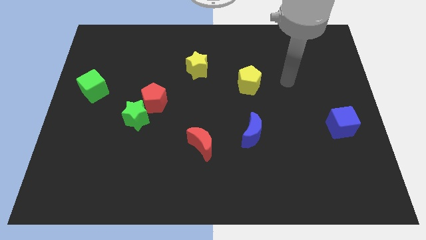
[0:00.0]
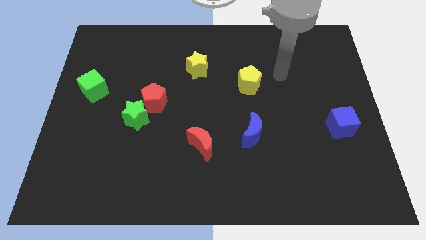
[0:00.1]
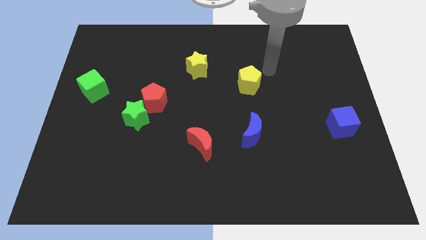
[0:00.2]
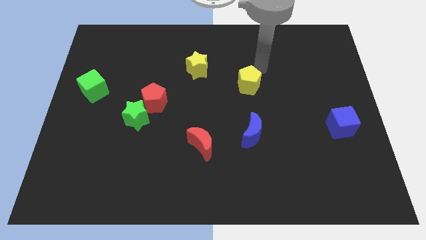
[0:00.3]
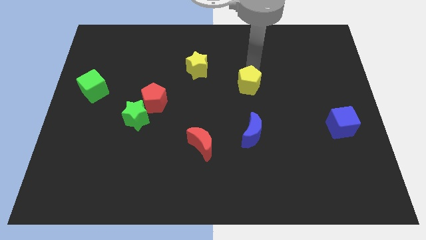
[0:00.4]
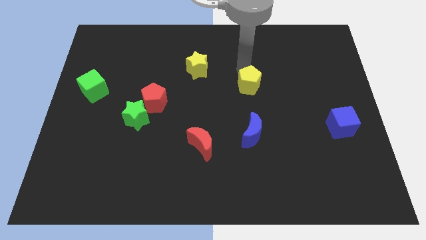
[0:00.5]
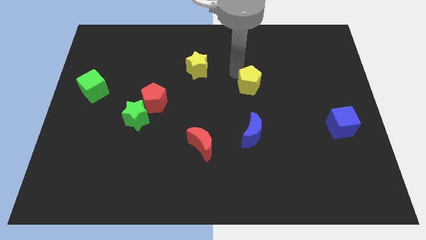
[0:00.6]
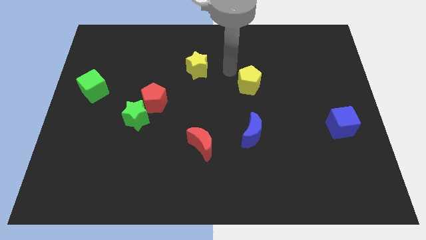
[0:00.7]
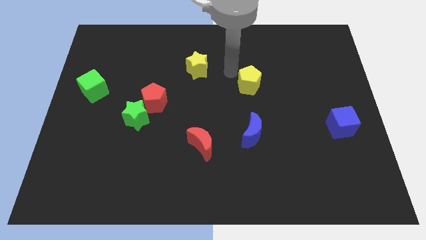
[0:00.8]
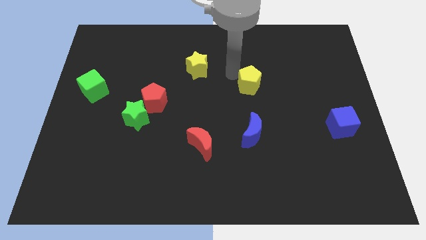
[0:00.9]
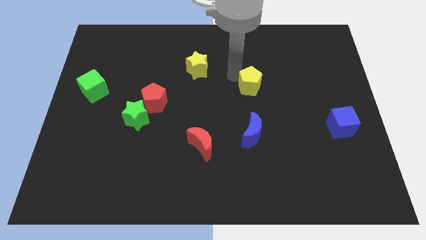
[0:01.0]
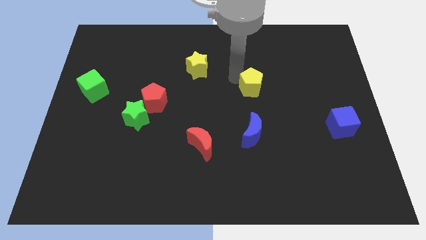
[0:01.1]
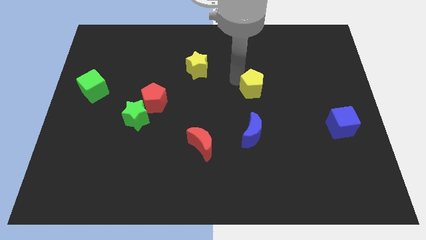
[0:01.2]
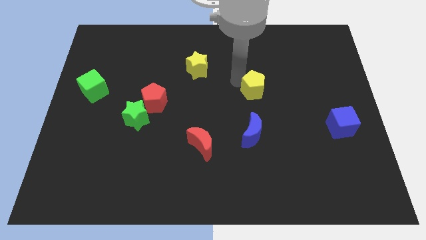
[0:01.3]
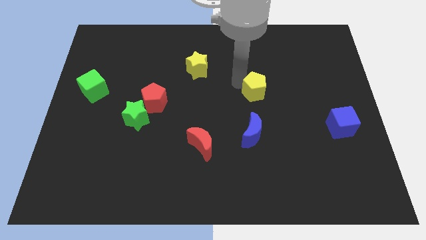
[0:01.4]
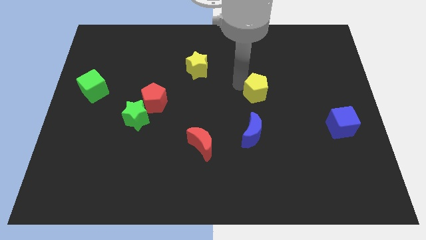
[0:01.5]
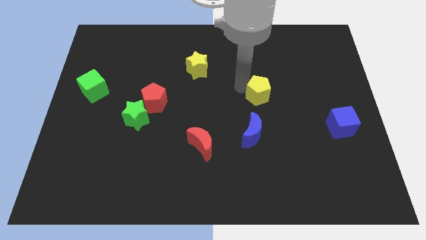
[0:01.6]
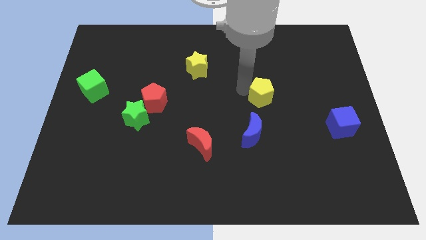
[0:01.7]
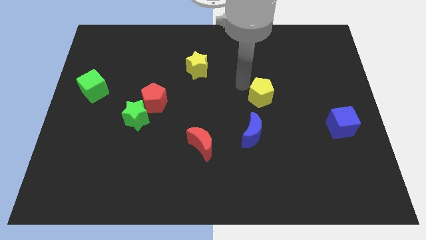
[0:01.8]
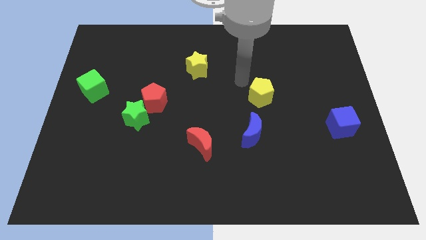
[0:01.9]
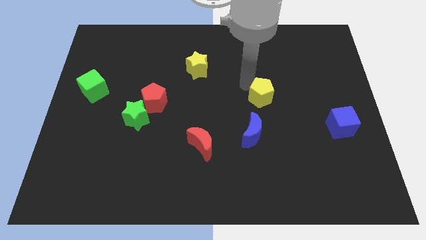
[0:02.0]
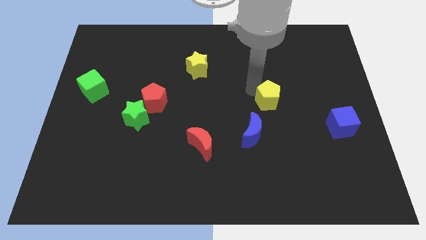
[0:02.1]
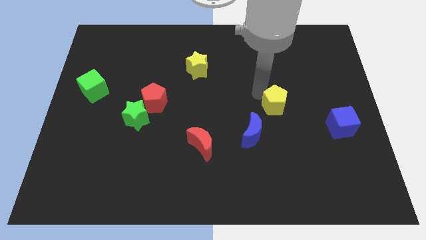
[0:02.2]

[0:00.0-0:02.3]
move the yellow pentagon downwards and right diagonally a bit

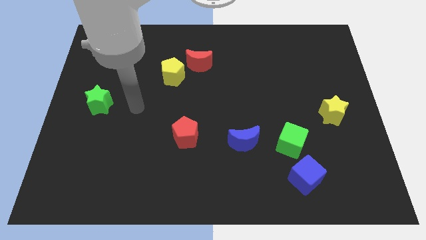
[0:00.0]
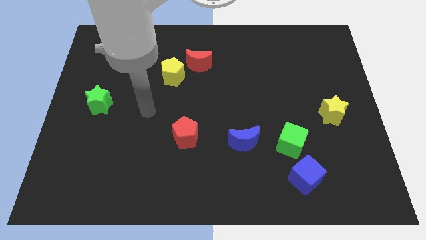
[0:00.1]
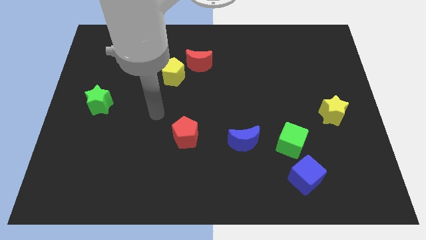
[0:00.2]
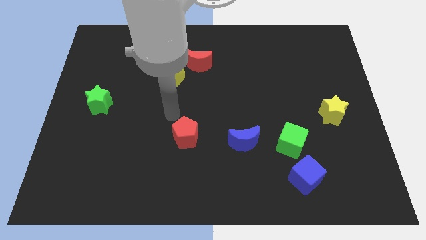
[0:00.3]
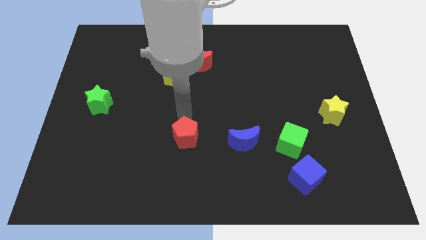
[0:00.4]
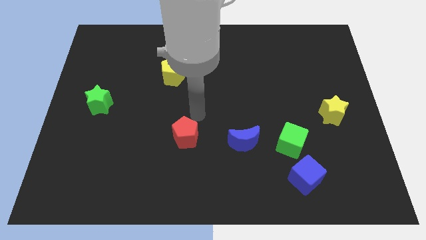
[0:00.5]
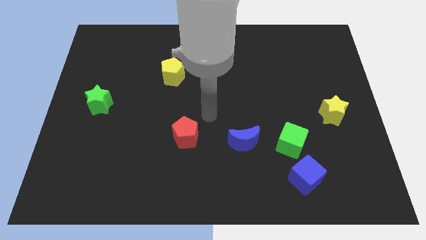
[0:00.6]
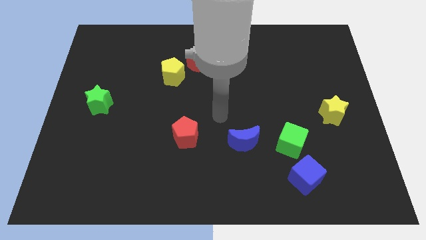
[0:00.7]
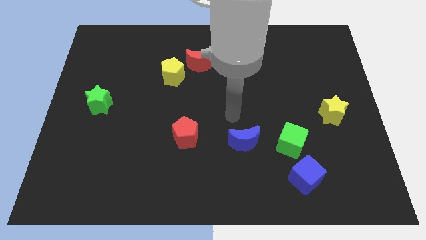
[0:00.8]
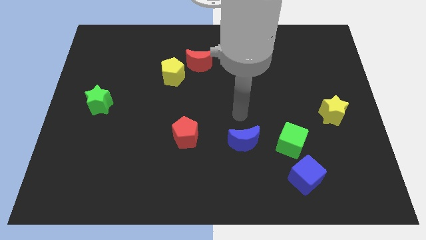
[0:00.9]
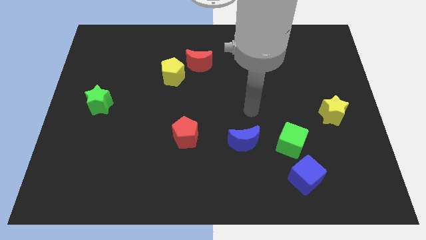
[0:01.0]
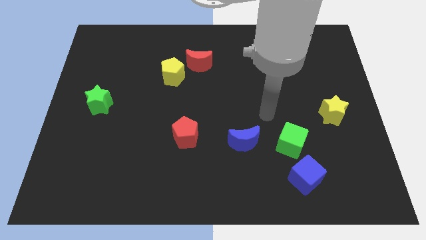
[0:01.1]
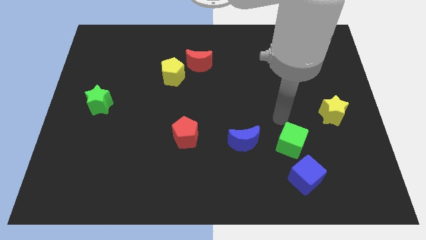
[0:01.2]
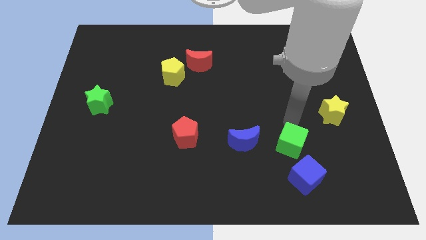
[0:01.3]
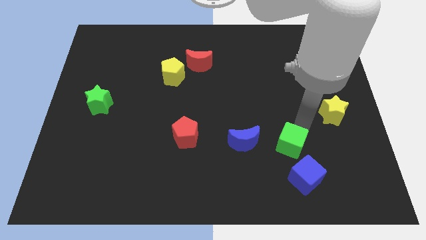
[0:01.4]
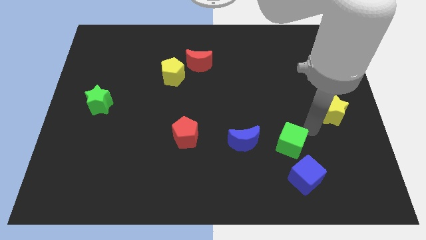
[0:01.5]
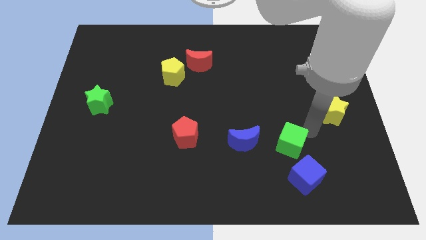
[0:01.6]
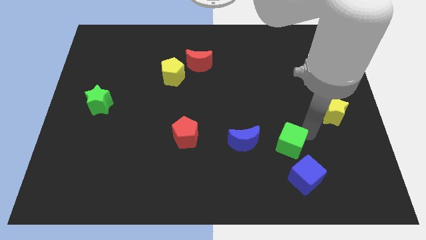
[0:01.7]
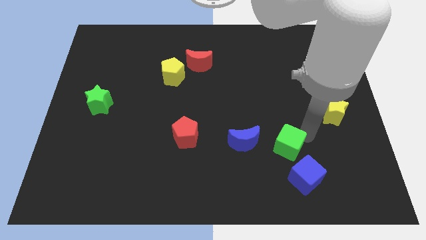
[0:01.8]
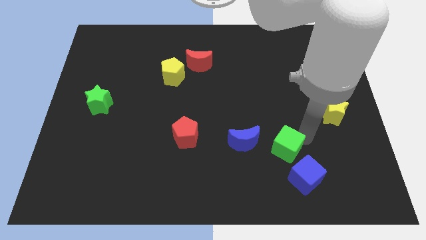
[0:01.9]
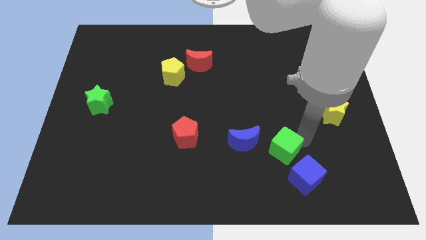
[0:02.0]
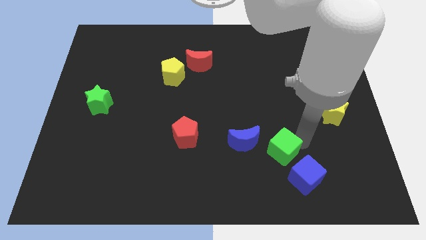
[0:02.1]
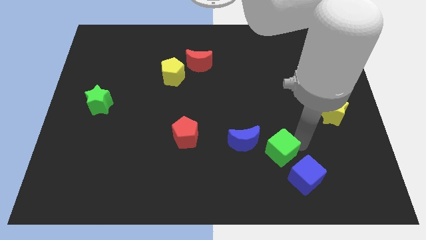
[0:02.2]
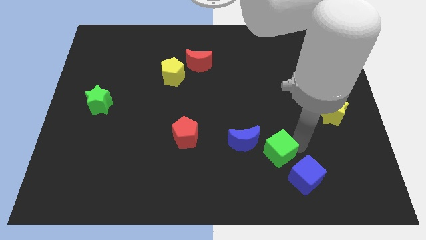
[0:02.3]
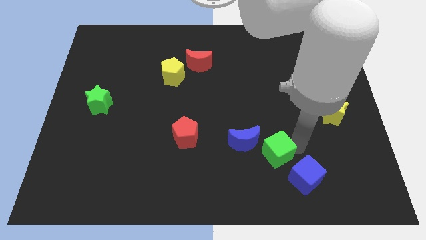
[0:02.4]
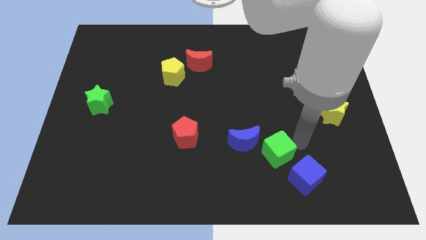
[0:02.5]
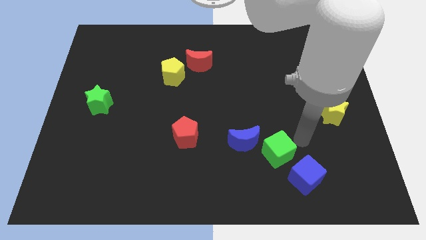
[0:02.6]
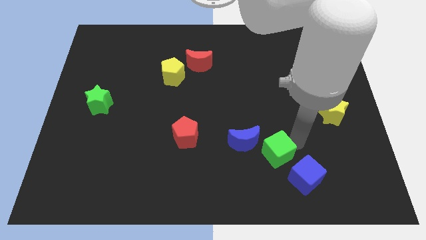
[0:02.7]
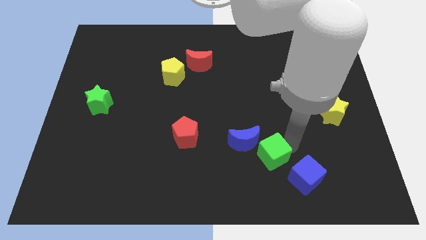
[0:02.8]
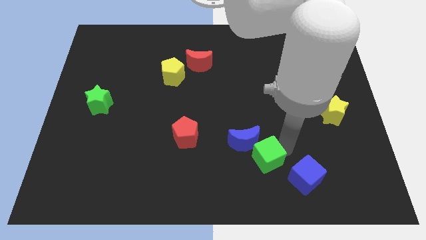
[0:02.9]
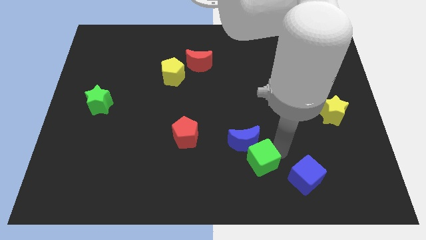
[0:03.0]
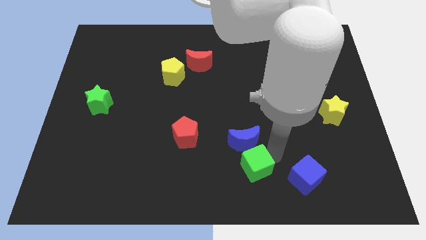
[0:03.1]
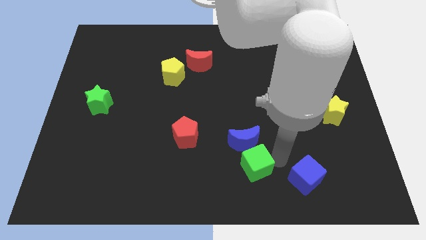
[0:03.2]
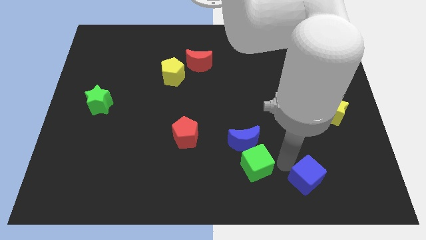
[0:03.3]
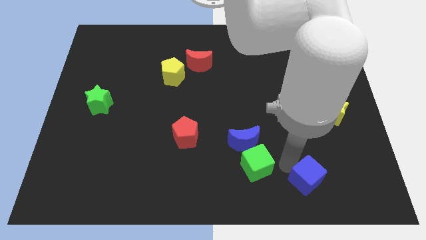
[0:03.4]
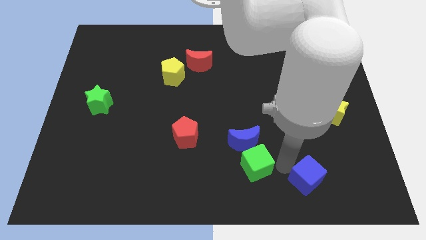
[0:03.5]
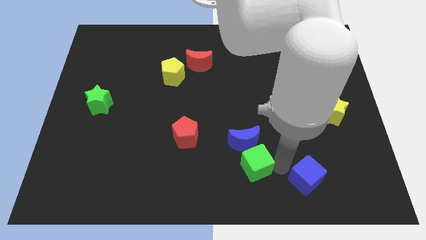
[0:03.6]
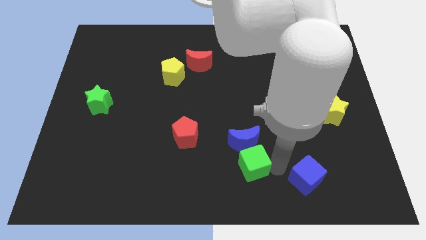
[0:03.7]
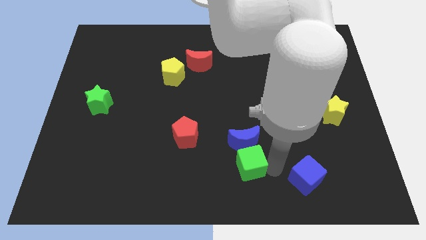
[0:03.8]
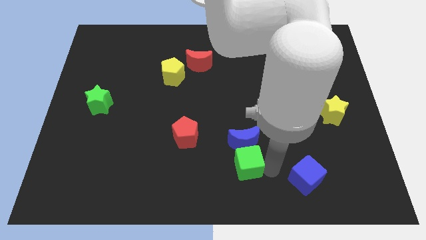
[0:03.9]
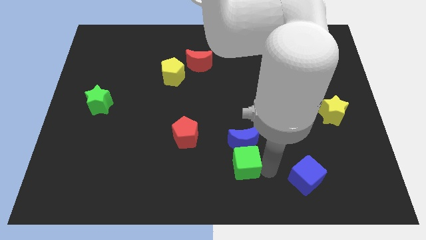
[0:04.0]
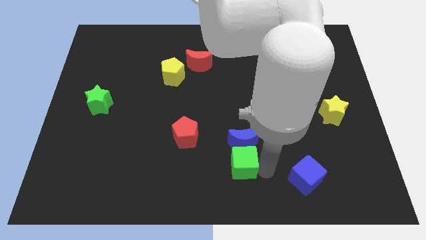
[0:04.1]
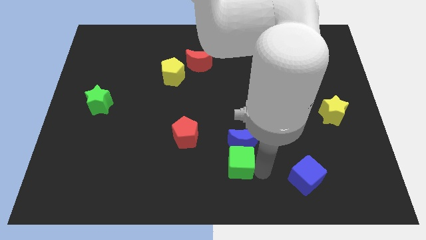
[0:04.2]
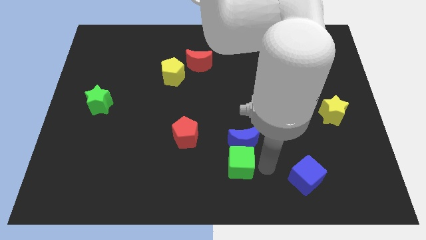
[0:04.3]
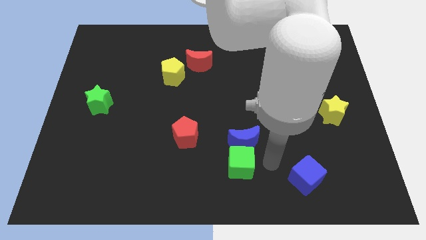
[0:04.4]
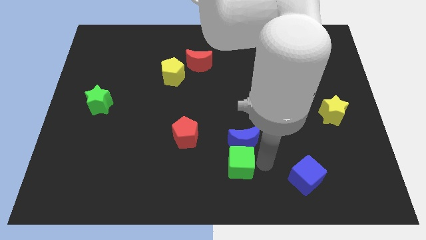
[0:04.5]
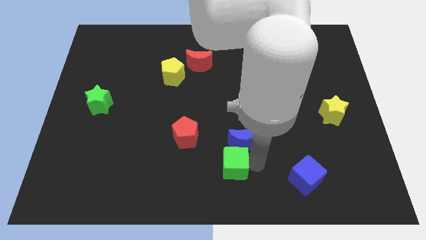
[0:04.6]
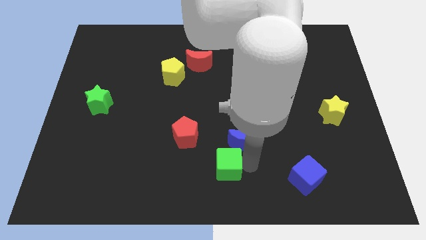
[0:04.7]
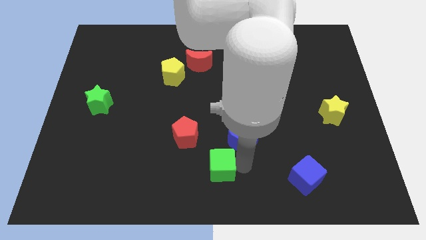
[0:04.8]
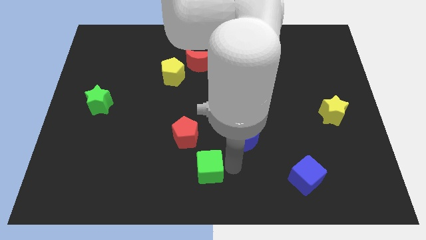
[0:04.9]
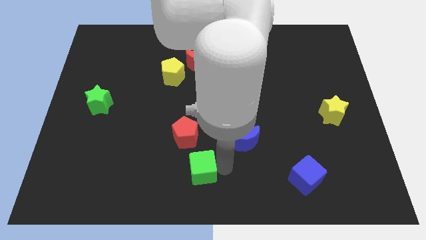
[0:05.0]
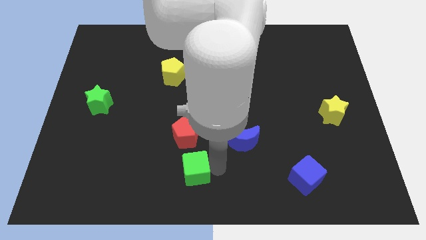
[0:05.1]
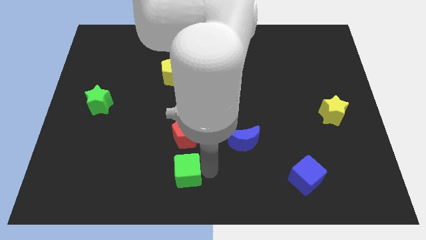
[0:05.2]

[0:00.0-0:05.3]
push the green cube left

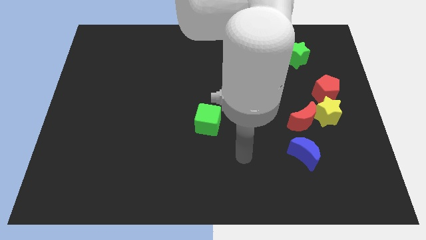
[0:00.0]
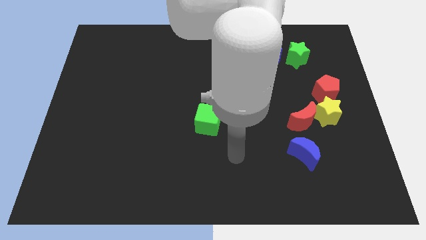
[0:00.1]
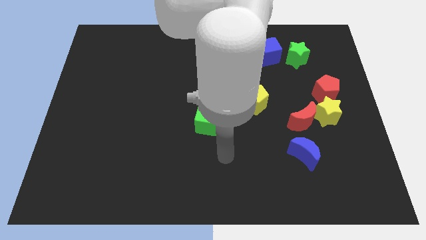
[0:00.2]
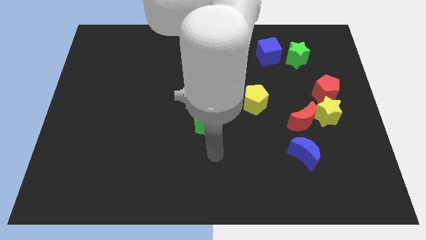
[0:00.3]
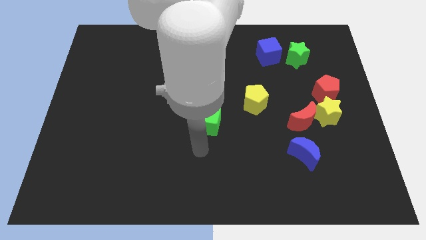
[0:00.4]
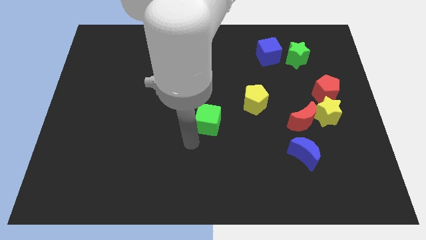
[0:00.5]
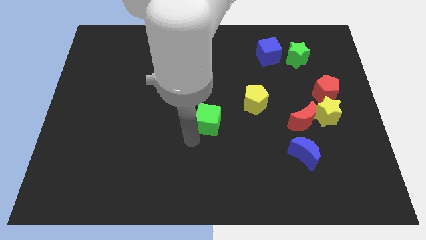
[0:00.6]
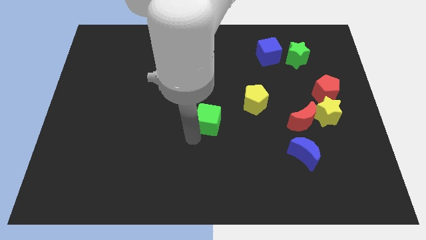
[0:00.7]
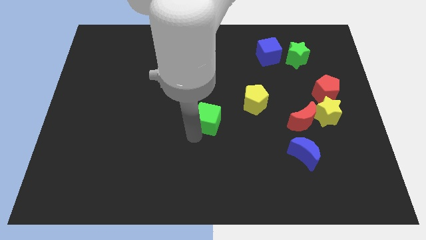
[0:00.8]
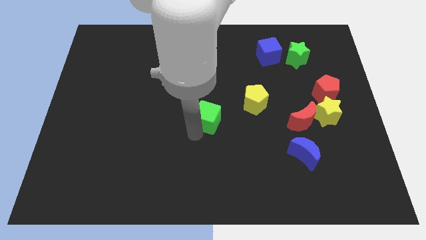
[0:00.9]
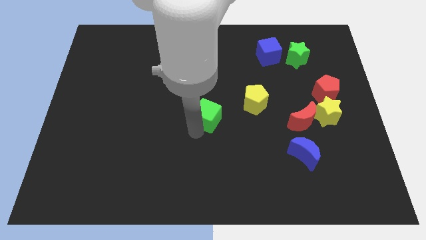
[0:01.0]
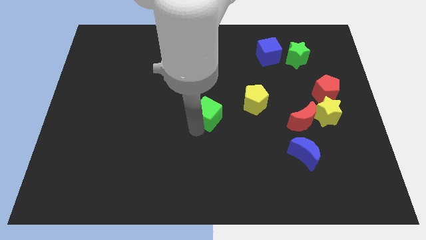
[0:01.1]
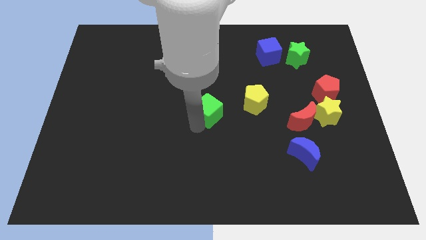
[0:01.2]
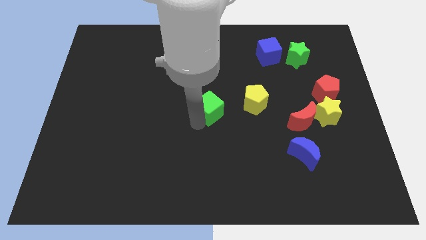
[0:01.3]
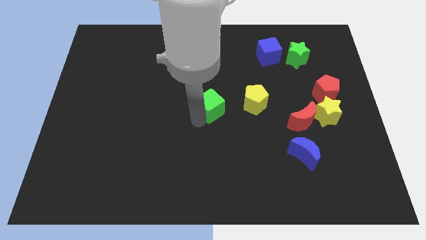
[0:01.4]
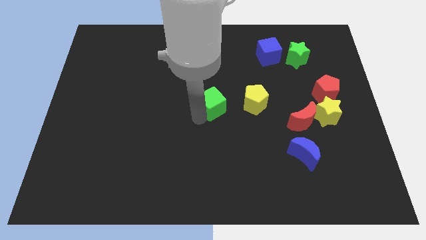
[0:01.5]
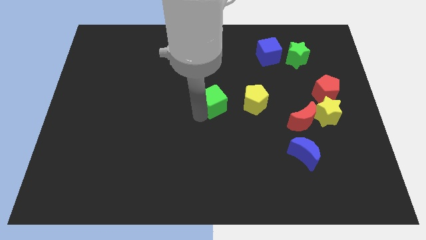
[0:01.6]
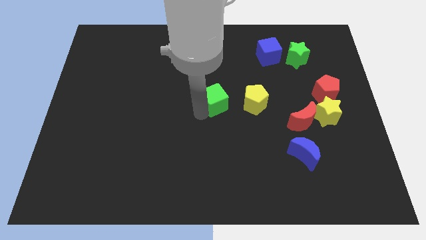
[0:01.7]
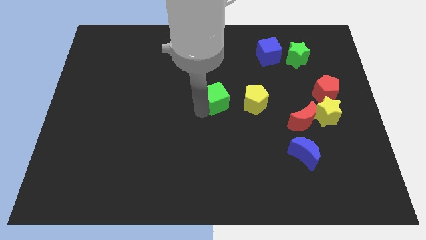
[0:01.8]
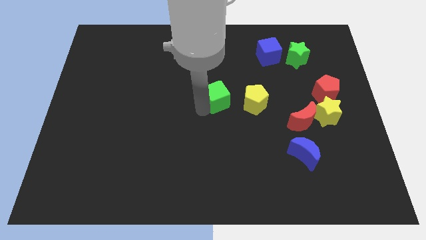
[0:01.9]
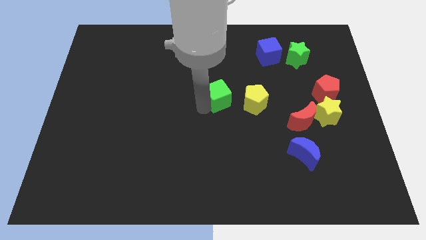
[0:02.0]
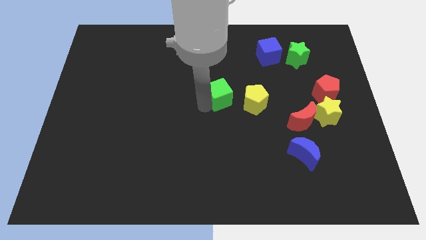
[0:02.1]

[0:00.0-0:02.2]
slightly push the green cube up and then to the right
